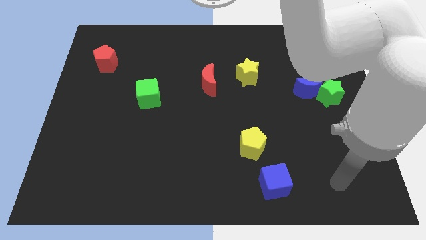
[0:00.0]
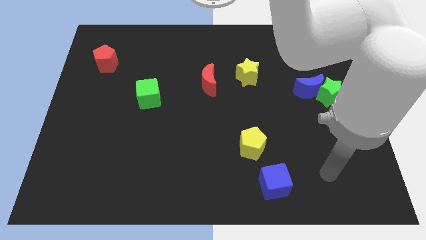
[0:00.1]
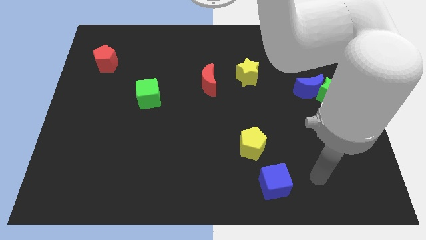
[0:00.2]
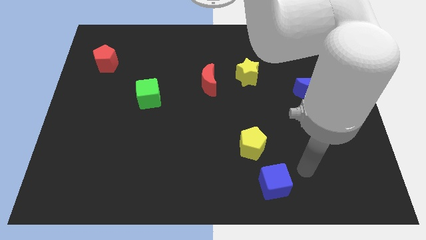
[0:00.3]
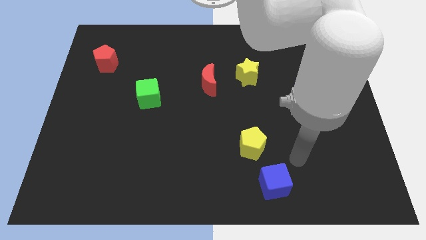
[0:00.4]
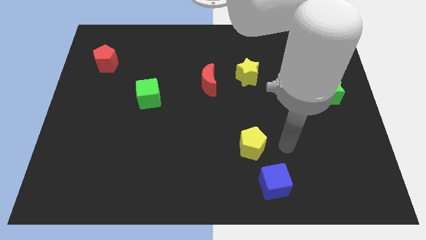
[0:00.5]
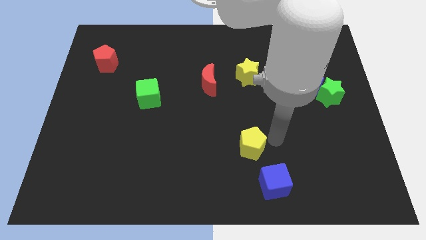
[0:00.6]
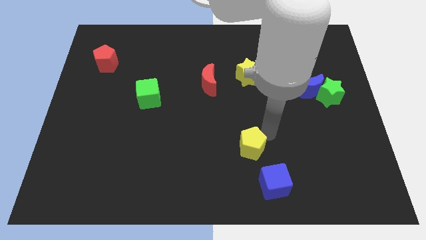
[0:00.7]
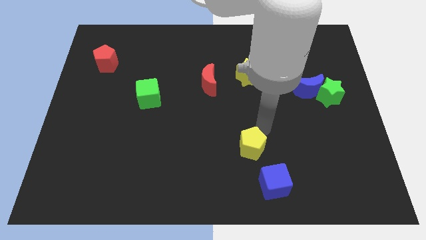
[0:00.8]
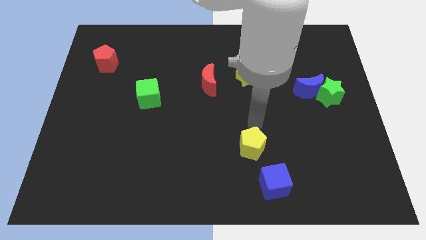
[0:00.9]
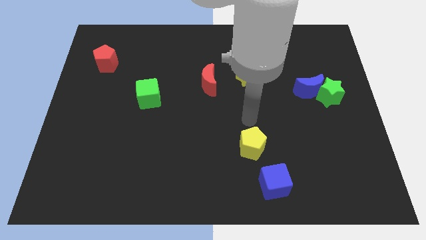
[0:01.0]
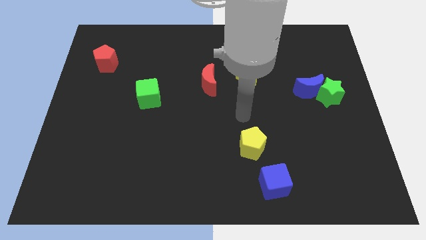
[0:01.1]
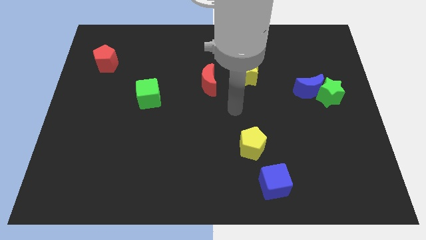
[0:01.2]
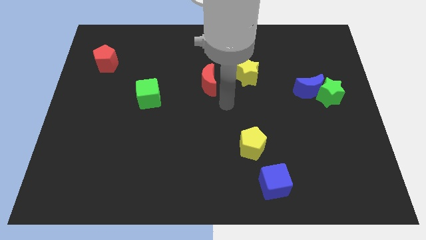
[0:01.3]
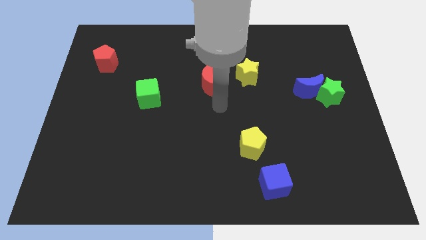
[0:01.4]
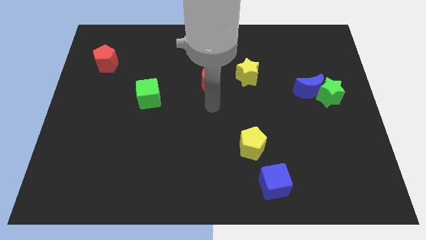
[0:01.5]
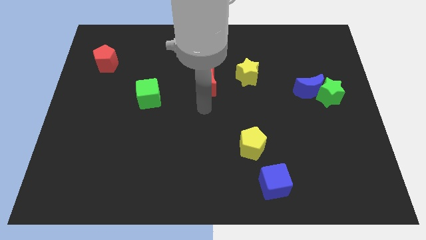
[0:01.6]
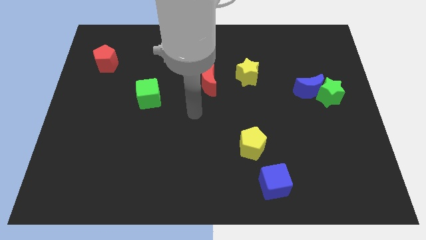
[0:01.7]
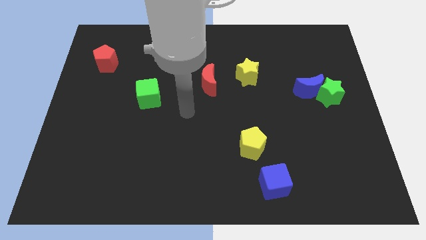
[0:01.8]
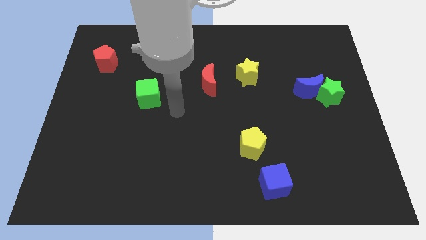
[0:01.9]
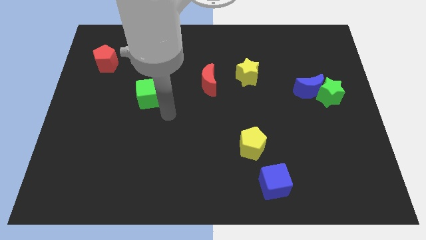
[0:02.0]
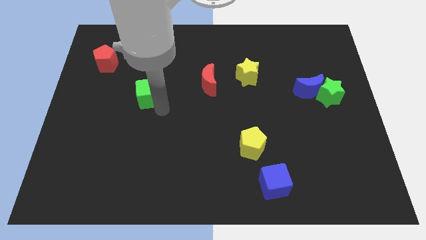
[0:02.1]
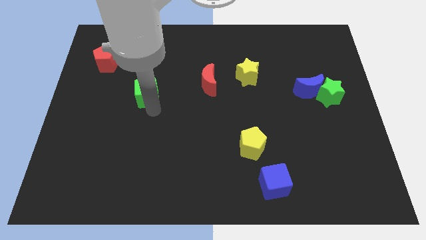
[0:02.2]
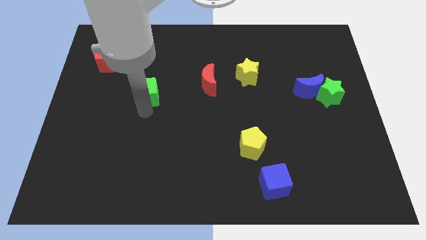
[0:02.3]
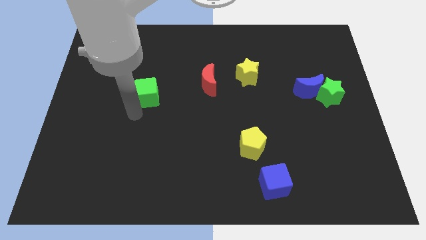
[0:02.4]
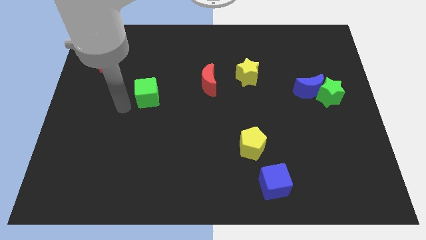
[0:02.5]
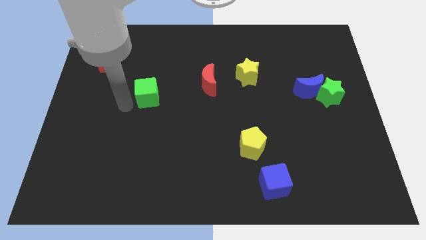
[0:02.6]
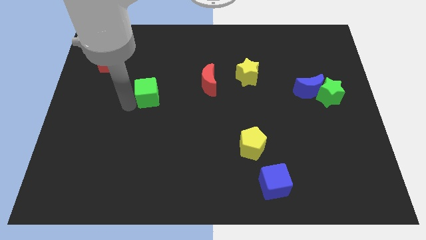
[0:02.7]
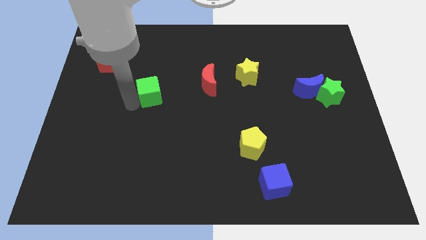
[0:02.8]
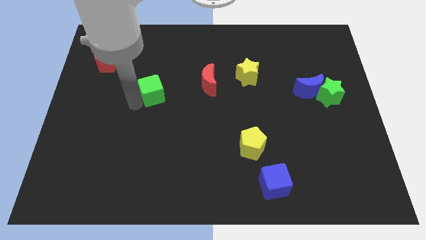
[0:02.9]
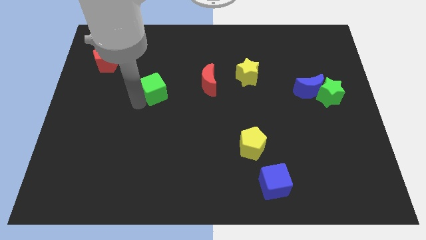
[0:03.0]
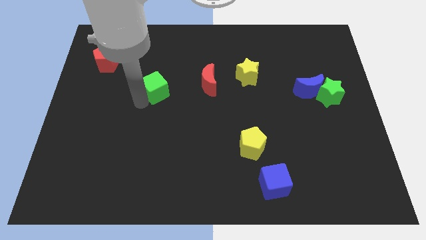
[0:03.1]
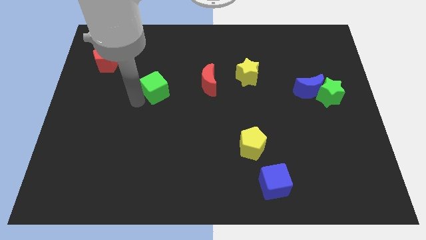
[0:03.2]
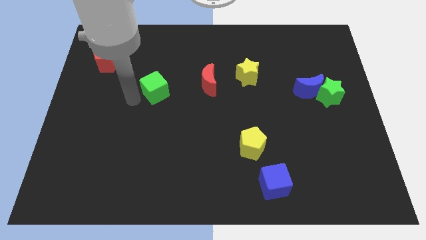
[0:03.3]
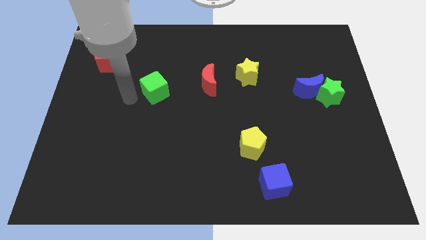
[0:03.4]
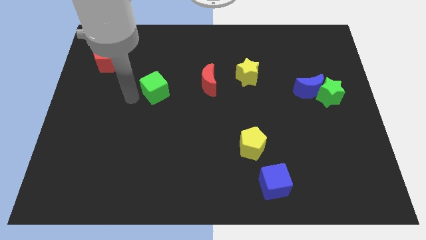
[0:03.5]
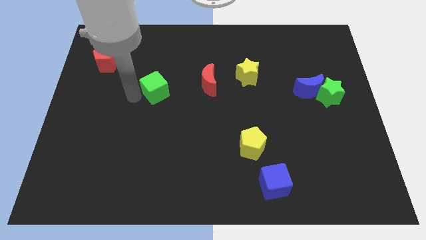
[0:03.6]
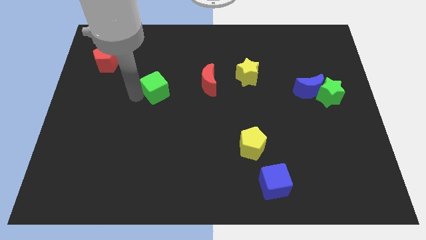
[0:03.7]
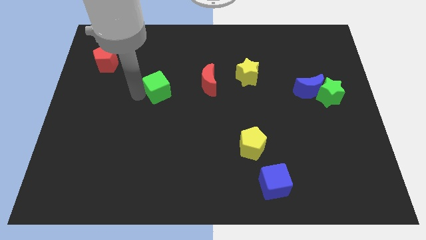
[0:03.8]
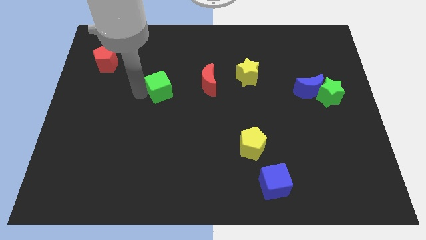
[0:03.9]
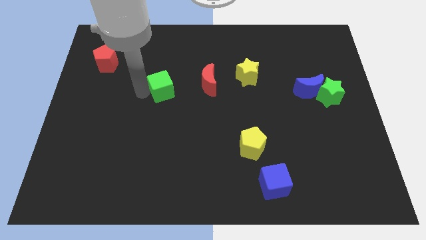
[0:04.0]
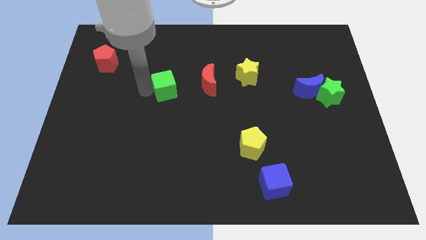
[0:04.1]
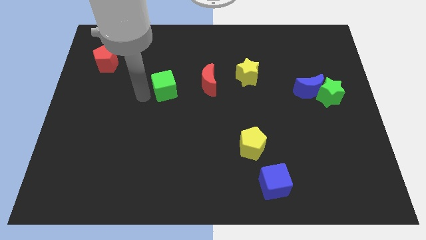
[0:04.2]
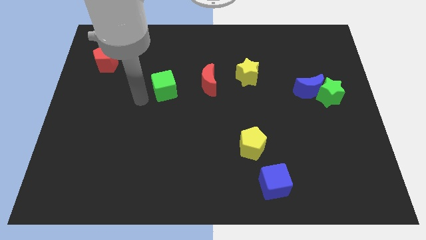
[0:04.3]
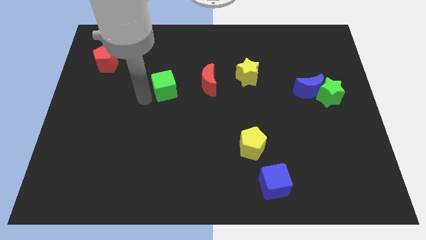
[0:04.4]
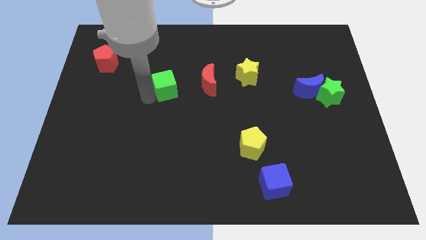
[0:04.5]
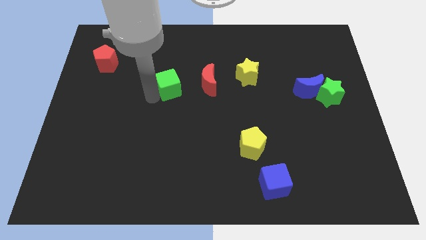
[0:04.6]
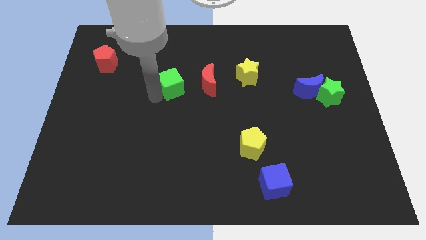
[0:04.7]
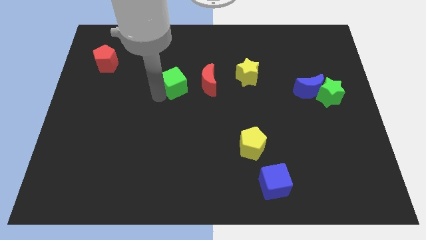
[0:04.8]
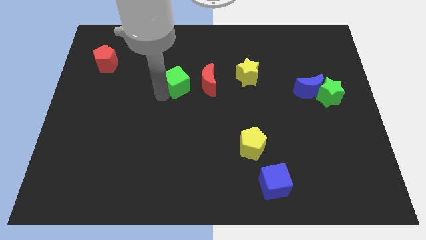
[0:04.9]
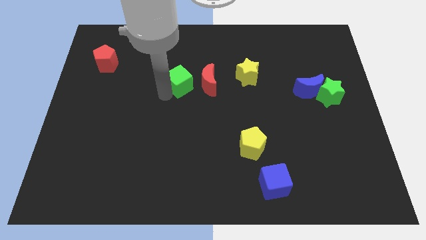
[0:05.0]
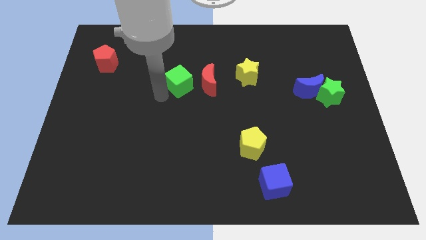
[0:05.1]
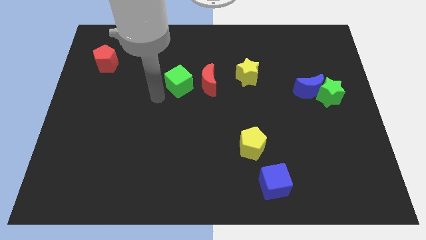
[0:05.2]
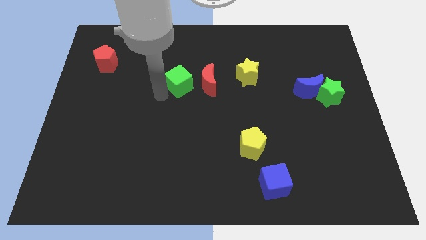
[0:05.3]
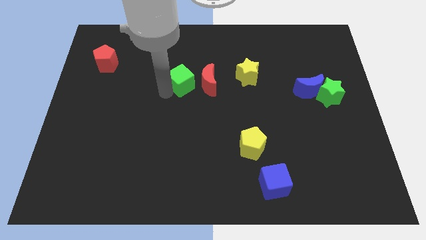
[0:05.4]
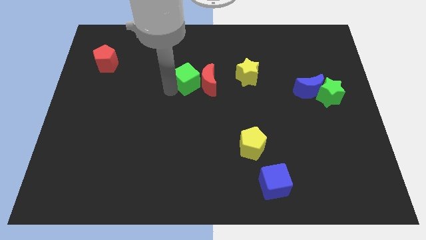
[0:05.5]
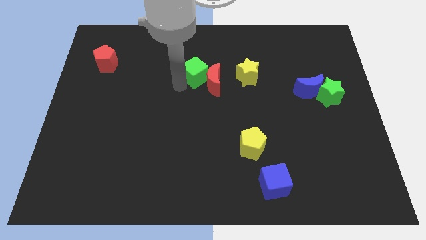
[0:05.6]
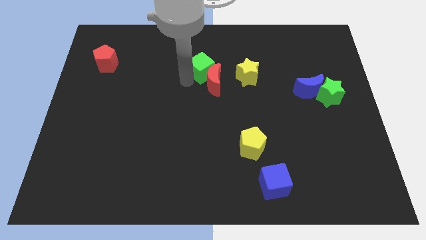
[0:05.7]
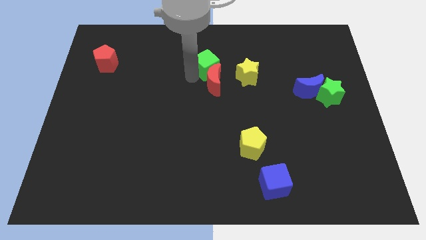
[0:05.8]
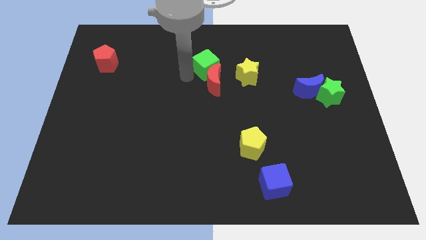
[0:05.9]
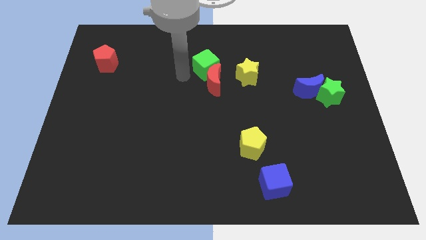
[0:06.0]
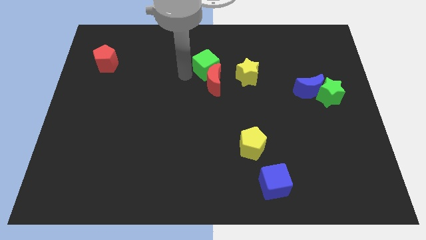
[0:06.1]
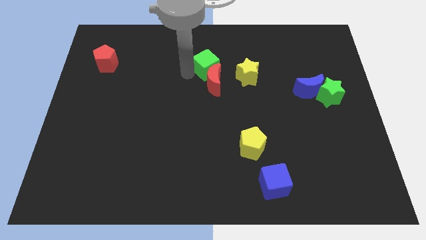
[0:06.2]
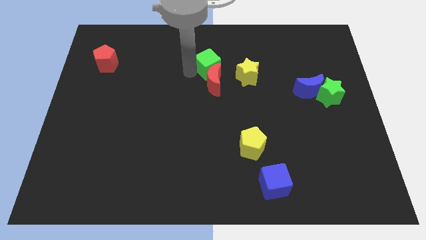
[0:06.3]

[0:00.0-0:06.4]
slide the green cube to the top left side of the yellow star
